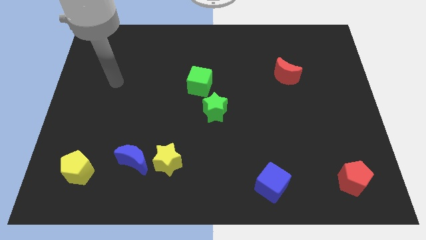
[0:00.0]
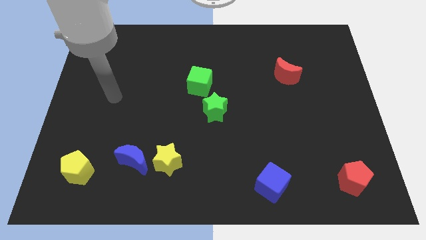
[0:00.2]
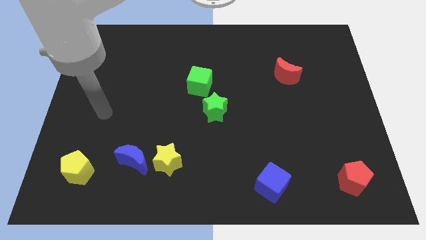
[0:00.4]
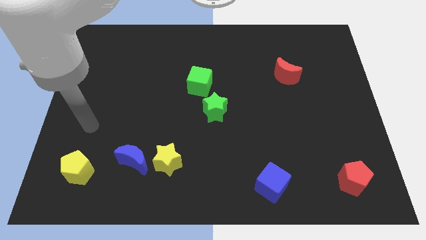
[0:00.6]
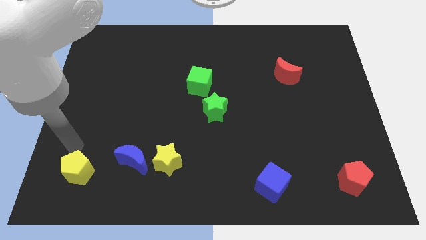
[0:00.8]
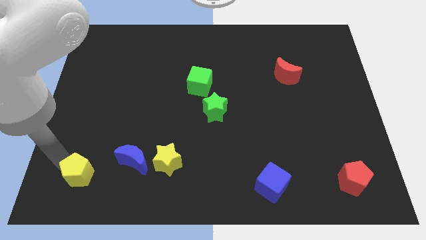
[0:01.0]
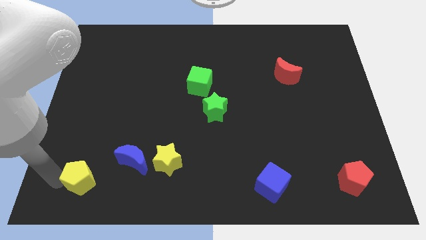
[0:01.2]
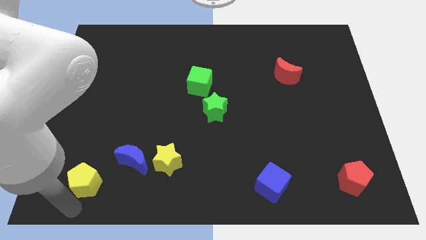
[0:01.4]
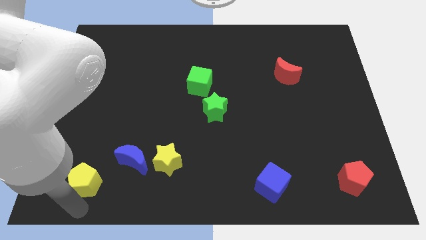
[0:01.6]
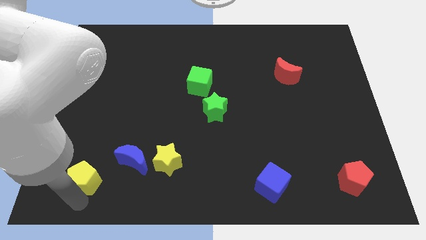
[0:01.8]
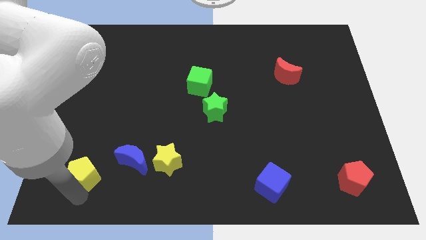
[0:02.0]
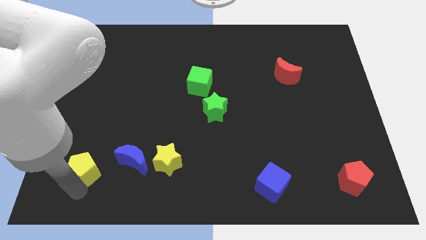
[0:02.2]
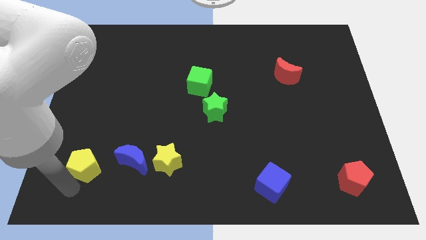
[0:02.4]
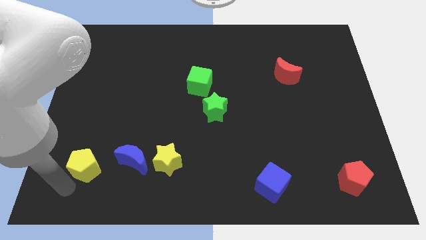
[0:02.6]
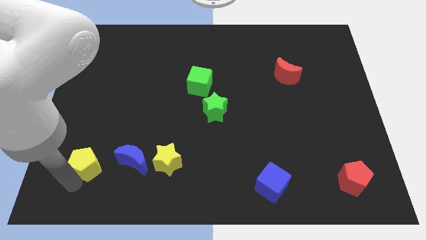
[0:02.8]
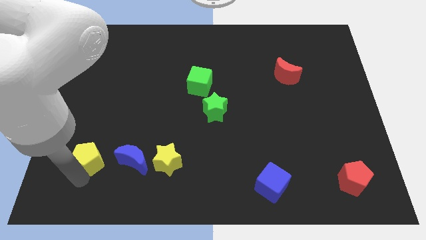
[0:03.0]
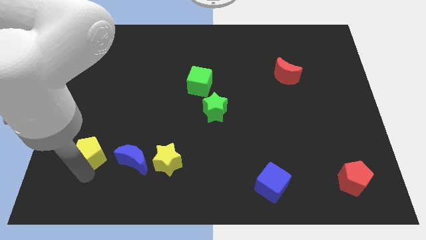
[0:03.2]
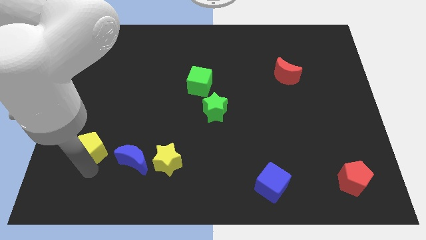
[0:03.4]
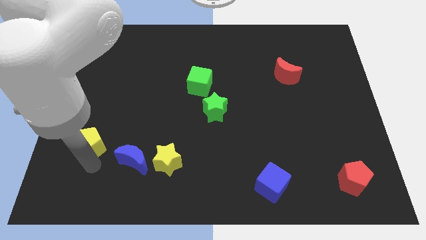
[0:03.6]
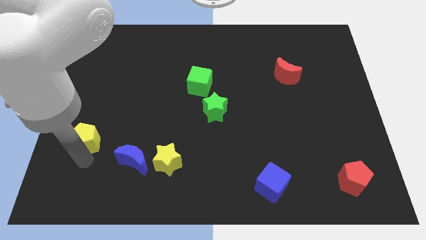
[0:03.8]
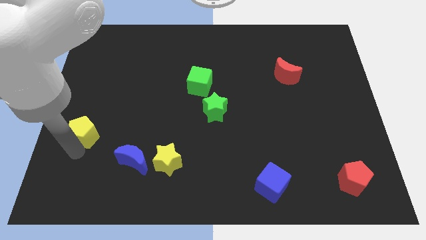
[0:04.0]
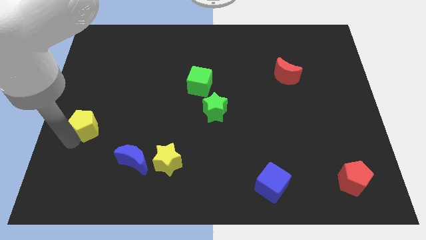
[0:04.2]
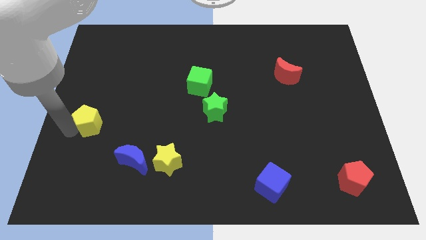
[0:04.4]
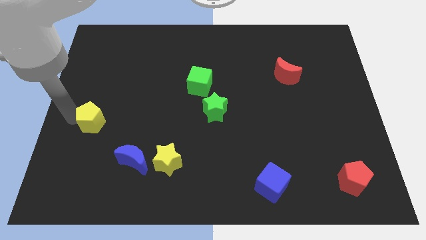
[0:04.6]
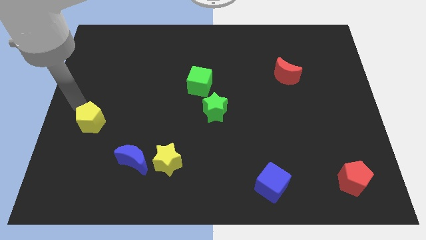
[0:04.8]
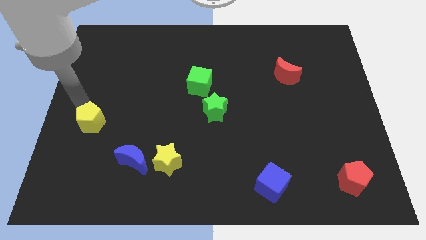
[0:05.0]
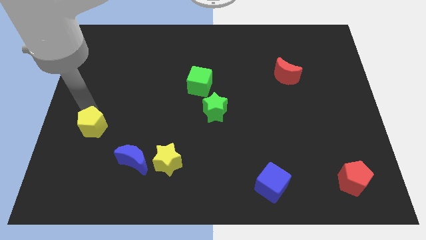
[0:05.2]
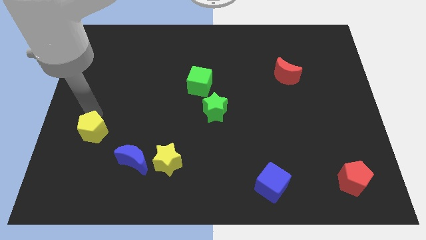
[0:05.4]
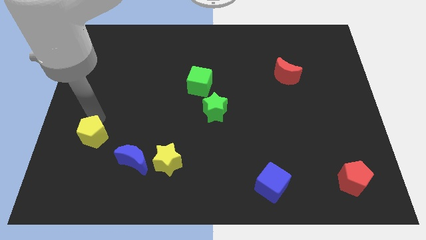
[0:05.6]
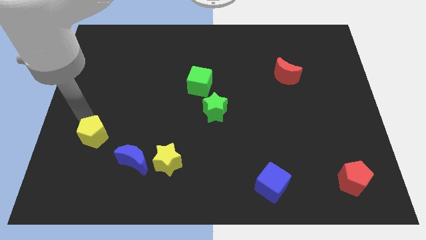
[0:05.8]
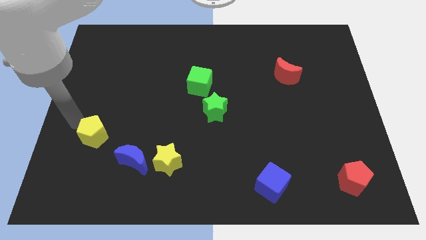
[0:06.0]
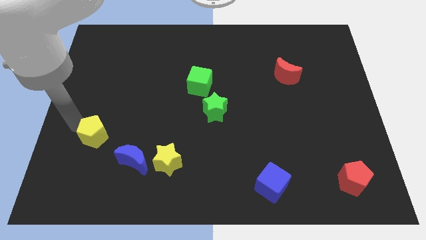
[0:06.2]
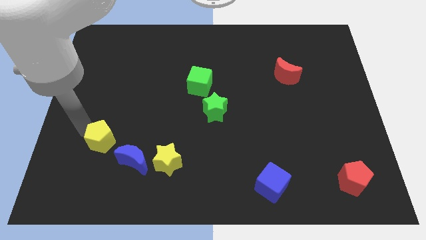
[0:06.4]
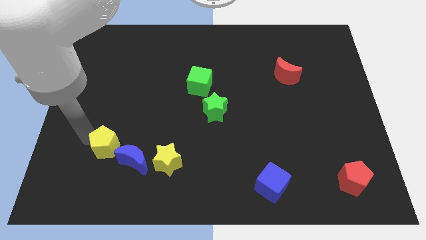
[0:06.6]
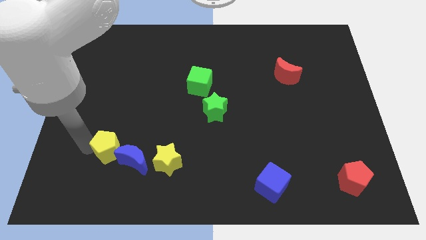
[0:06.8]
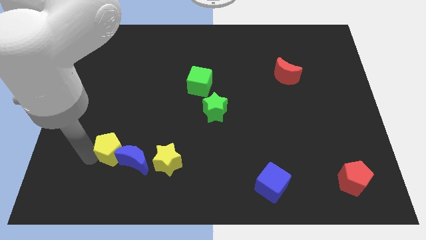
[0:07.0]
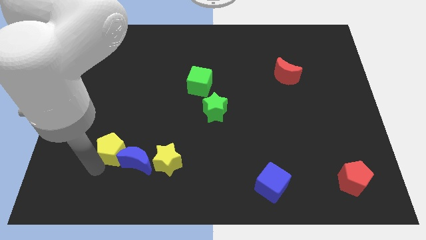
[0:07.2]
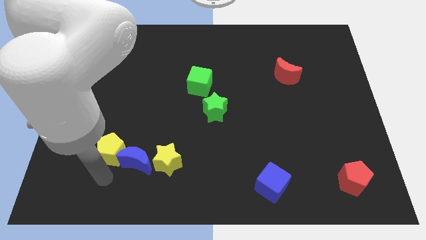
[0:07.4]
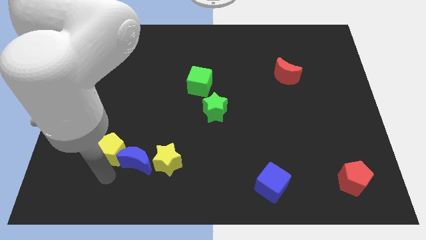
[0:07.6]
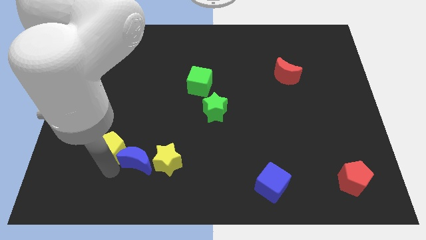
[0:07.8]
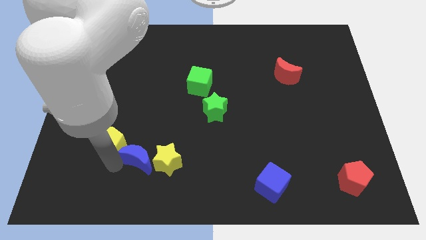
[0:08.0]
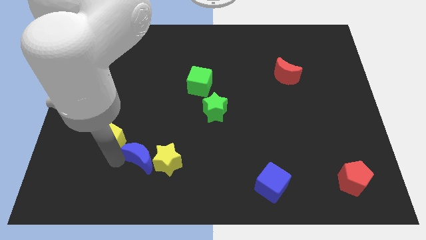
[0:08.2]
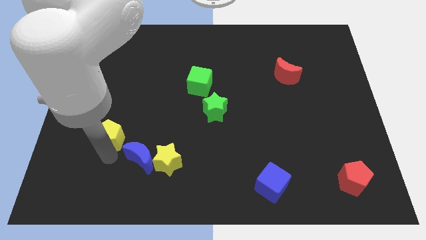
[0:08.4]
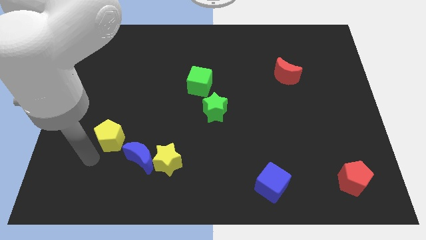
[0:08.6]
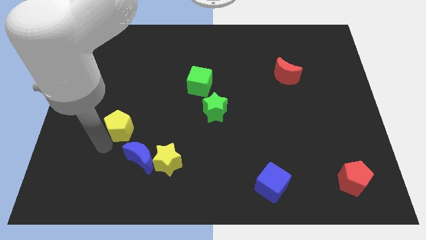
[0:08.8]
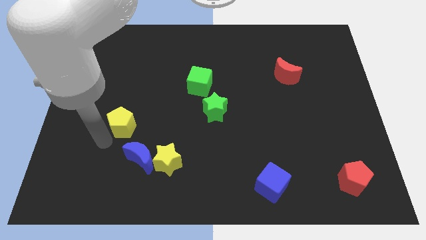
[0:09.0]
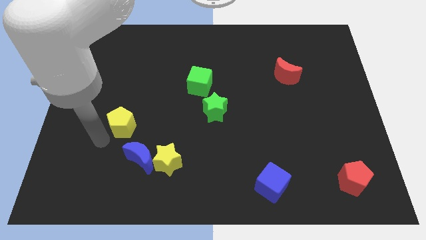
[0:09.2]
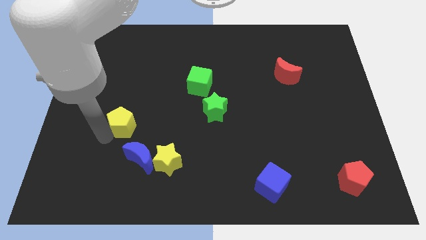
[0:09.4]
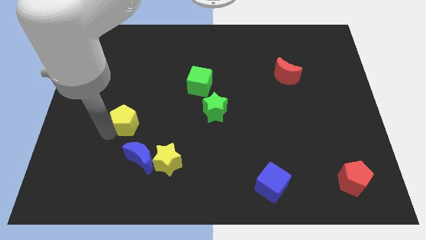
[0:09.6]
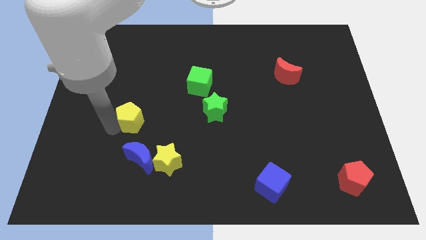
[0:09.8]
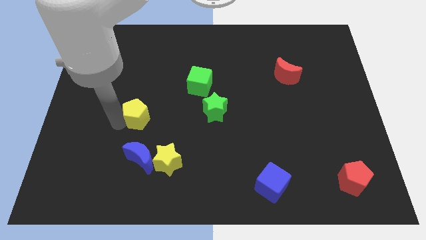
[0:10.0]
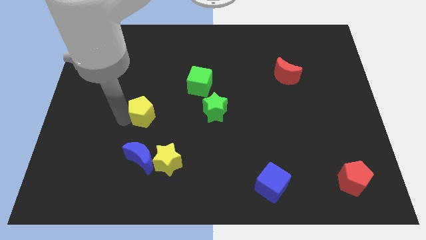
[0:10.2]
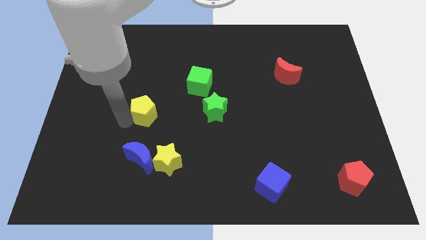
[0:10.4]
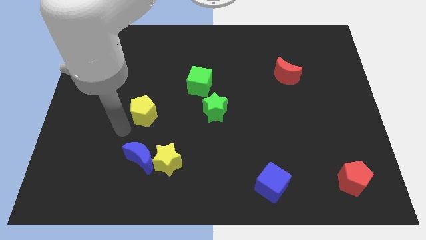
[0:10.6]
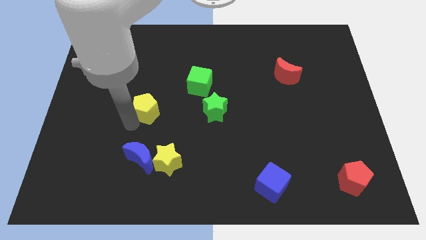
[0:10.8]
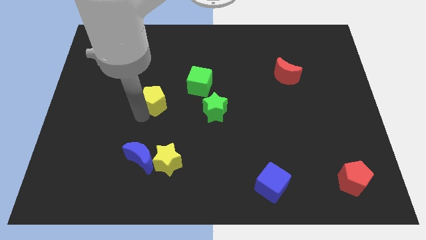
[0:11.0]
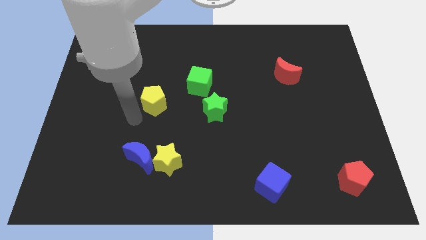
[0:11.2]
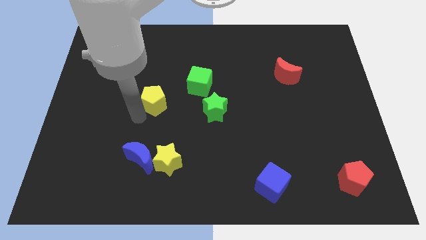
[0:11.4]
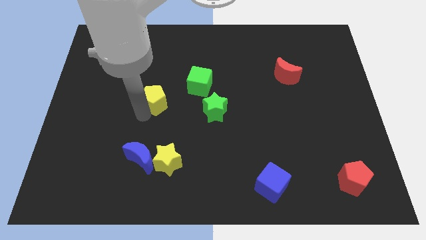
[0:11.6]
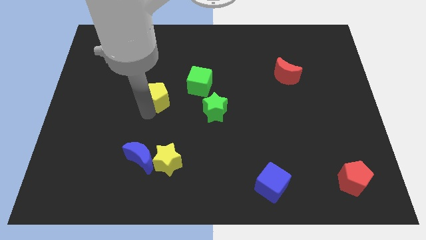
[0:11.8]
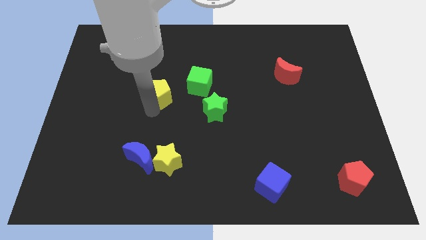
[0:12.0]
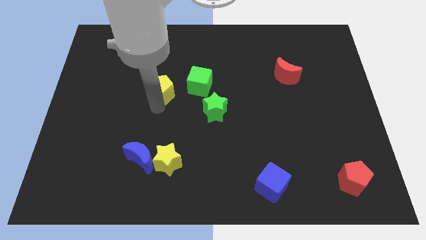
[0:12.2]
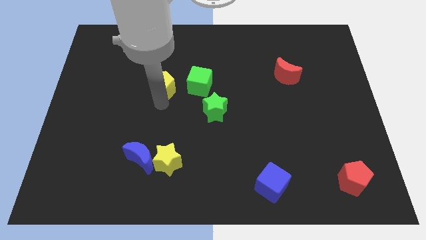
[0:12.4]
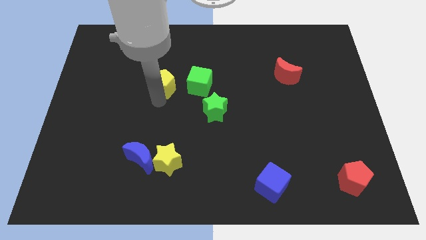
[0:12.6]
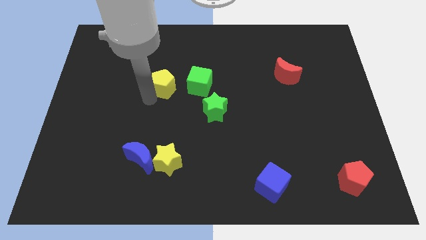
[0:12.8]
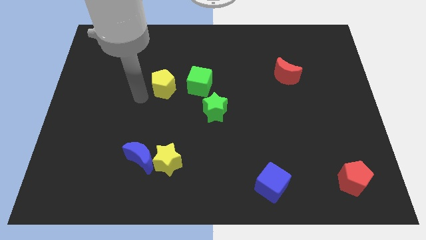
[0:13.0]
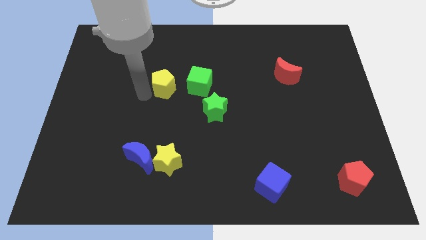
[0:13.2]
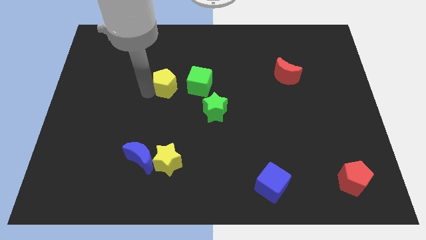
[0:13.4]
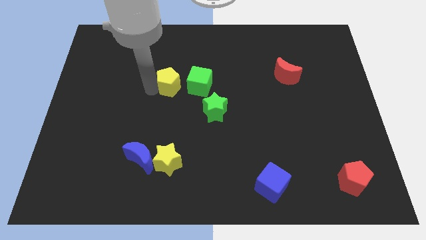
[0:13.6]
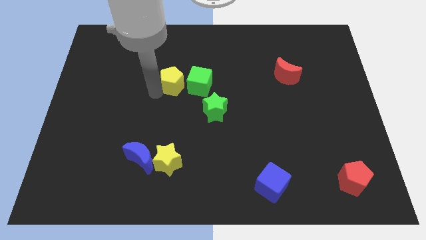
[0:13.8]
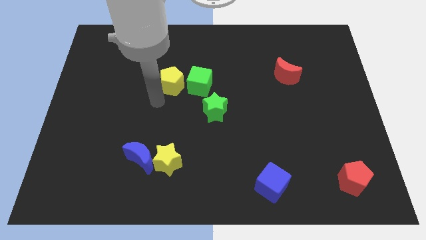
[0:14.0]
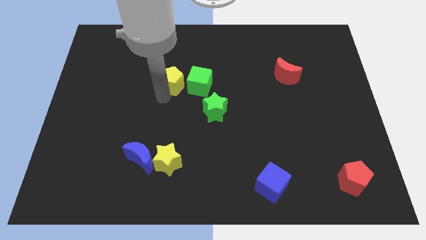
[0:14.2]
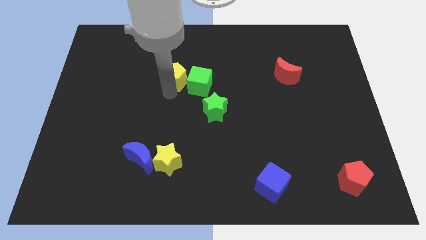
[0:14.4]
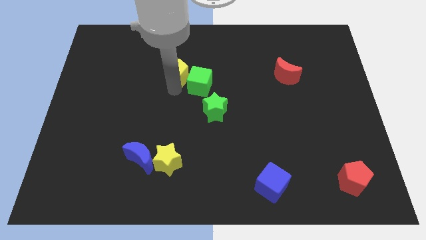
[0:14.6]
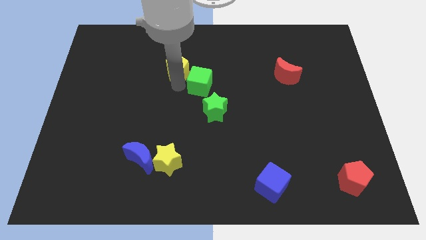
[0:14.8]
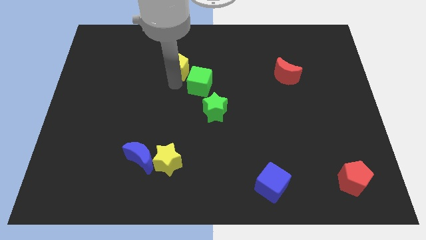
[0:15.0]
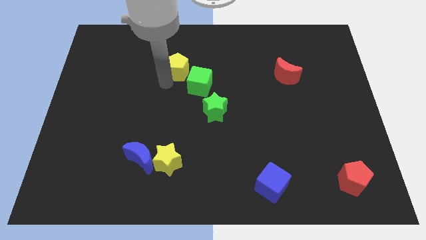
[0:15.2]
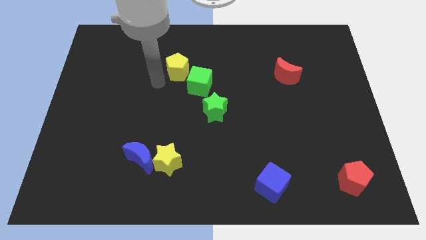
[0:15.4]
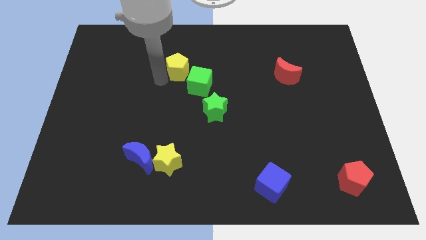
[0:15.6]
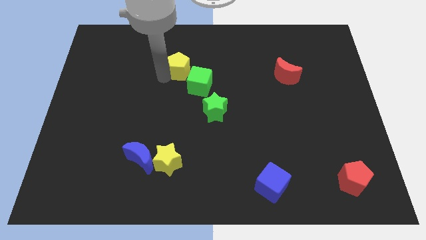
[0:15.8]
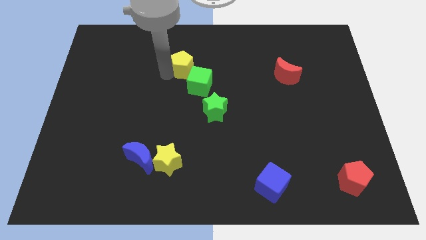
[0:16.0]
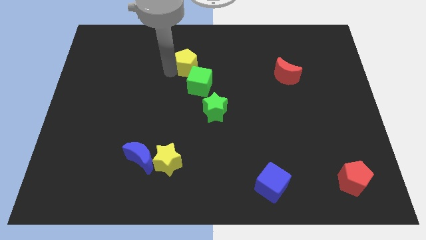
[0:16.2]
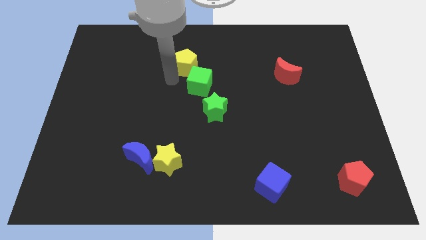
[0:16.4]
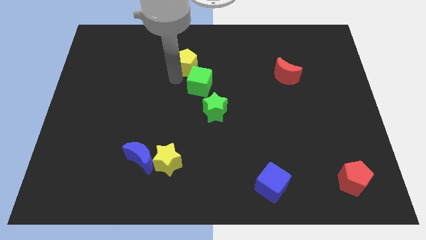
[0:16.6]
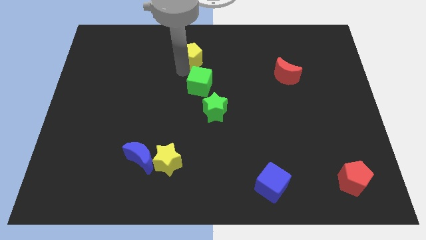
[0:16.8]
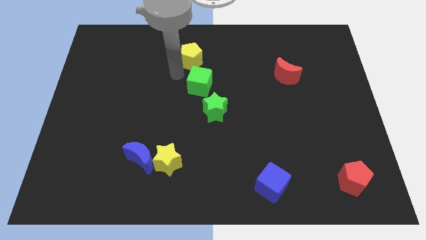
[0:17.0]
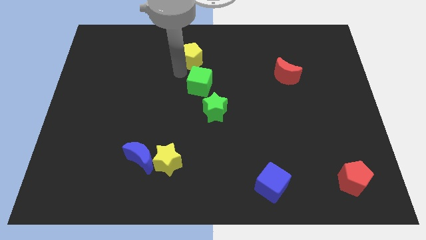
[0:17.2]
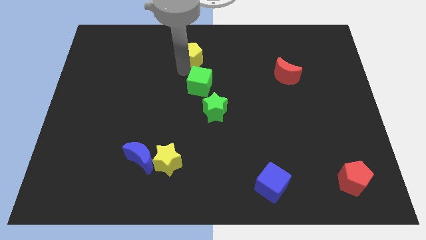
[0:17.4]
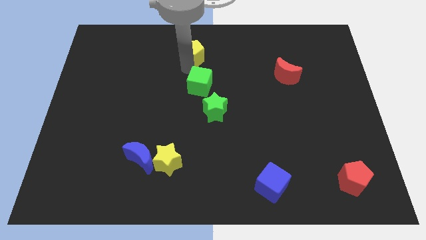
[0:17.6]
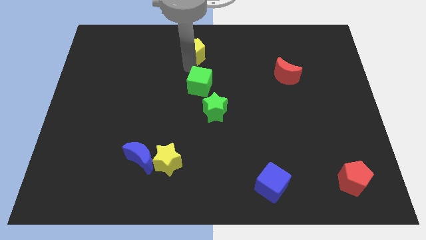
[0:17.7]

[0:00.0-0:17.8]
push the yellow pentagon to the towards your base
